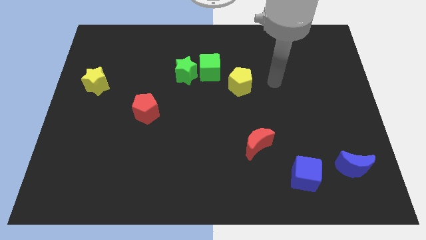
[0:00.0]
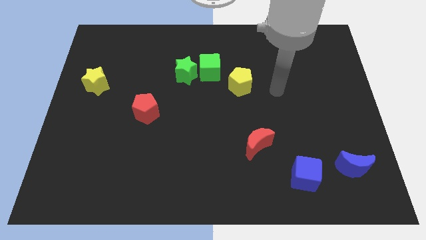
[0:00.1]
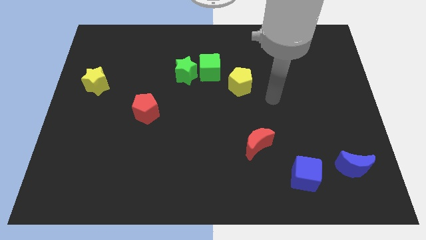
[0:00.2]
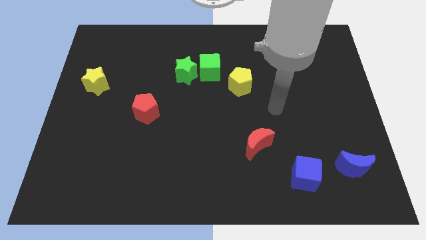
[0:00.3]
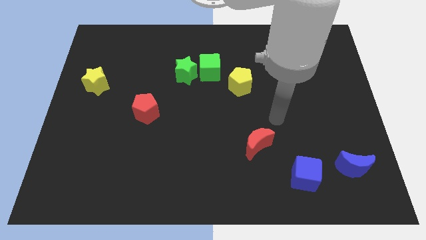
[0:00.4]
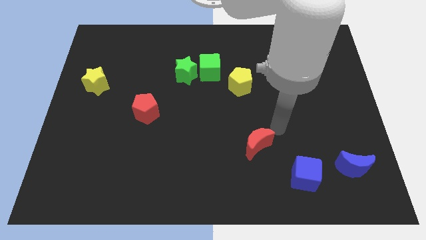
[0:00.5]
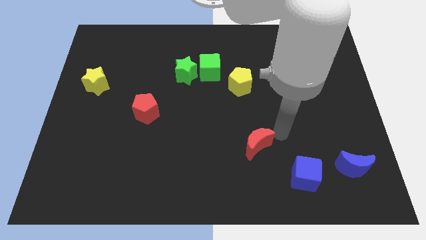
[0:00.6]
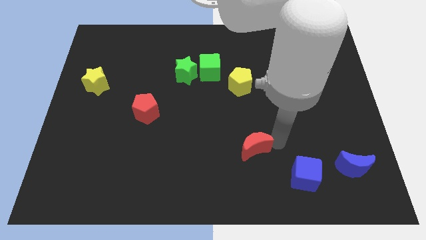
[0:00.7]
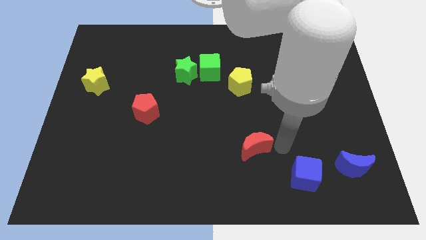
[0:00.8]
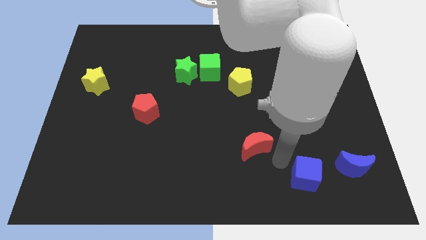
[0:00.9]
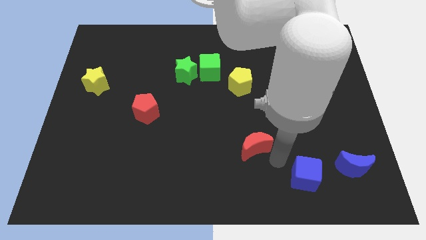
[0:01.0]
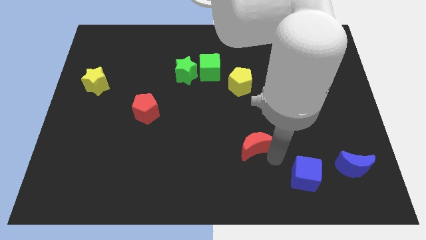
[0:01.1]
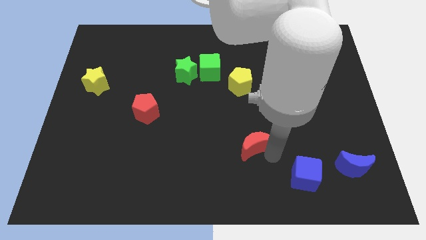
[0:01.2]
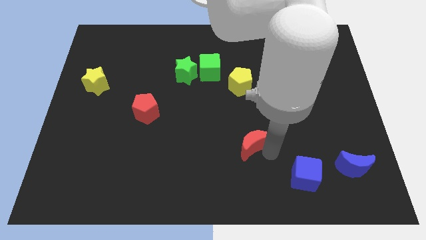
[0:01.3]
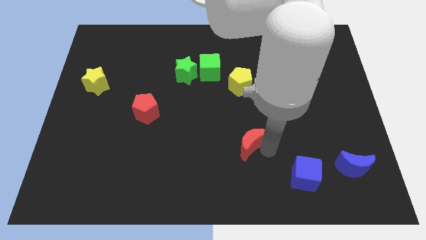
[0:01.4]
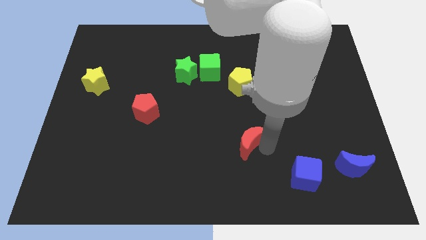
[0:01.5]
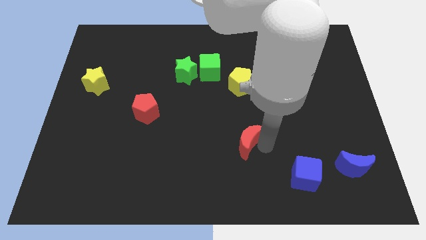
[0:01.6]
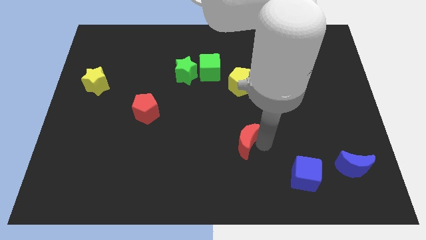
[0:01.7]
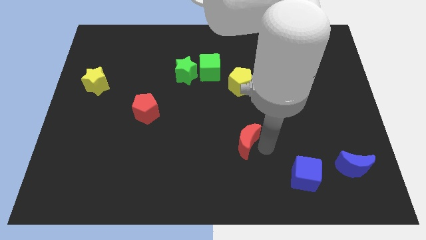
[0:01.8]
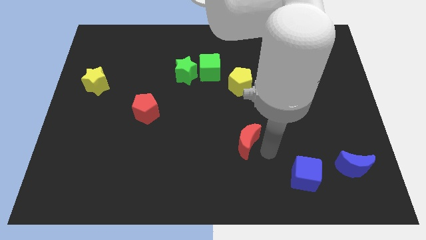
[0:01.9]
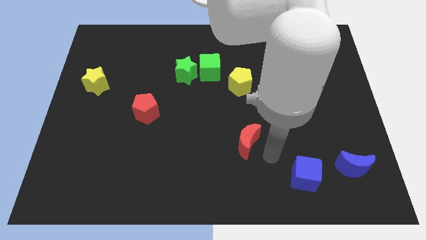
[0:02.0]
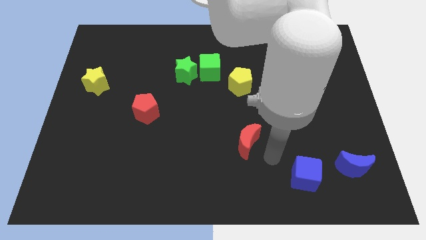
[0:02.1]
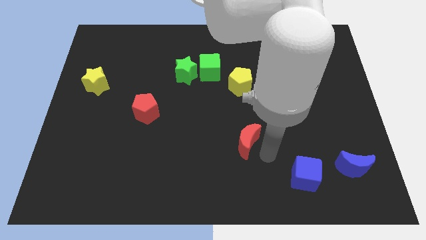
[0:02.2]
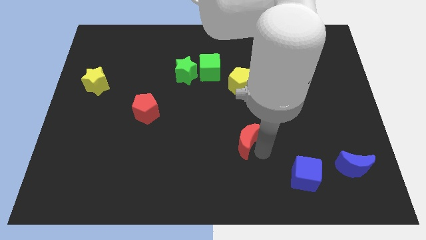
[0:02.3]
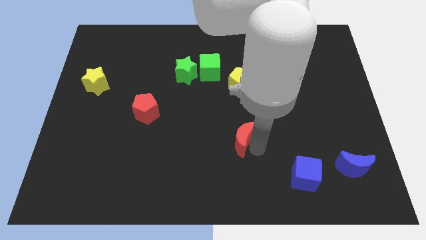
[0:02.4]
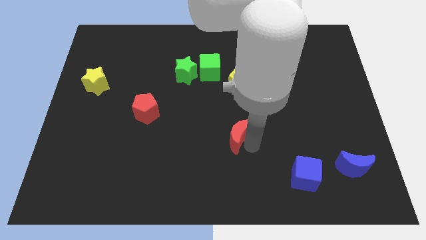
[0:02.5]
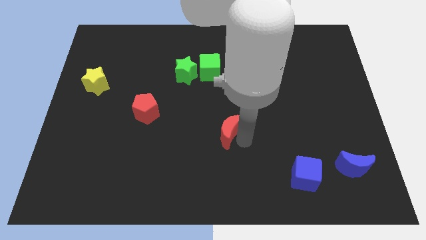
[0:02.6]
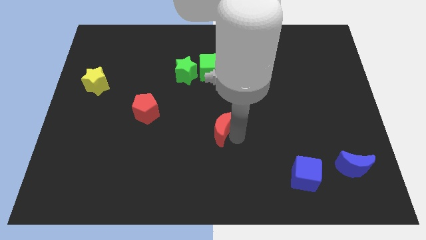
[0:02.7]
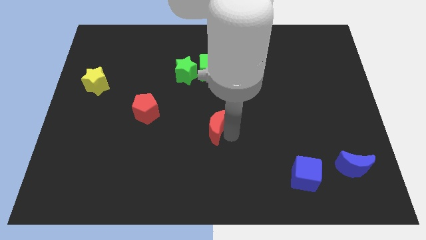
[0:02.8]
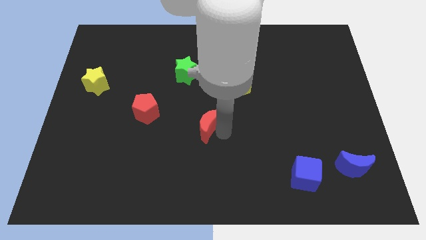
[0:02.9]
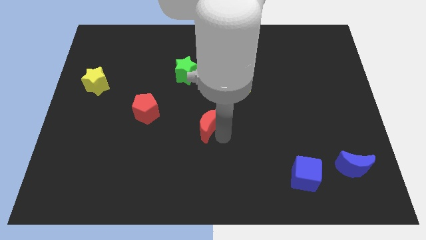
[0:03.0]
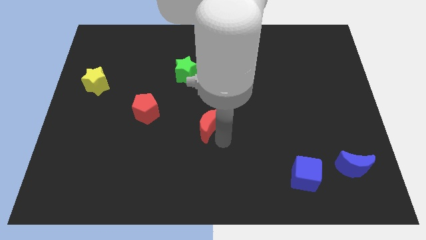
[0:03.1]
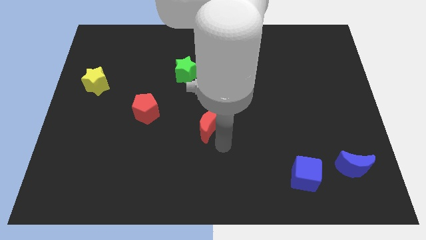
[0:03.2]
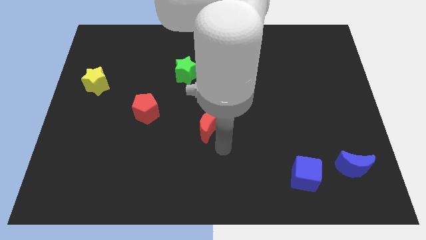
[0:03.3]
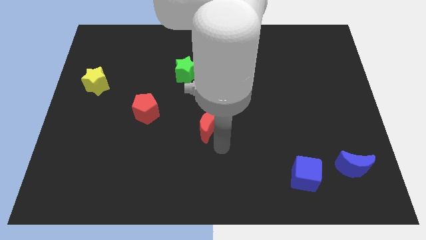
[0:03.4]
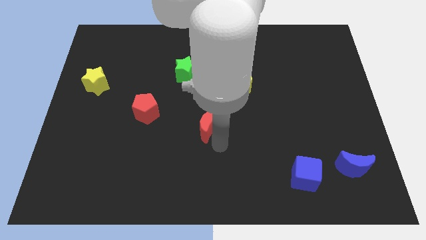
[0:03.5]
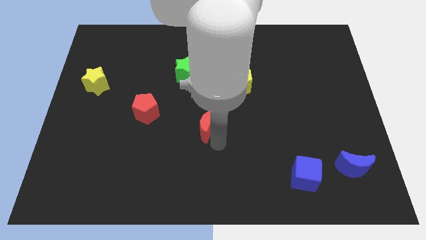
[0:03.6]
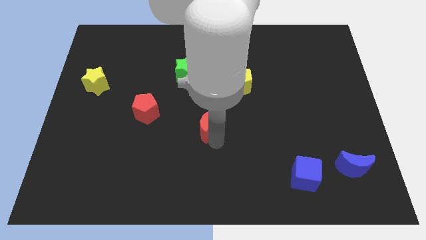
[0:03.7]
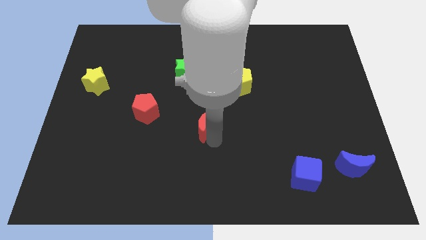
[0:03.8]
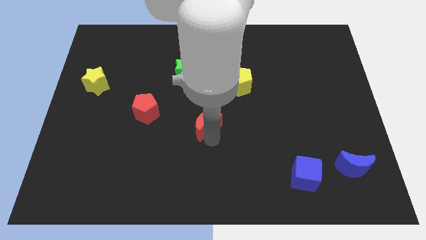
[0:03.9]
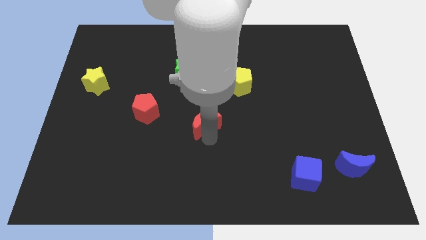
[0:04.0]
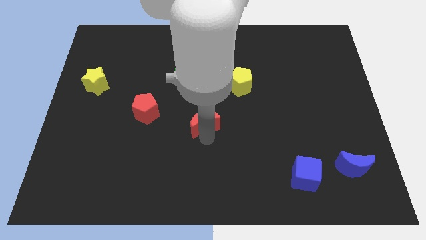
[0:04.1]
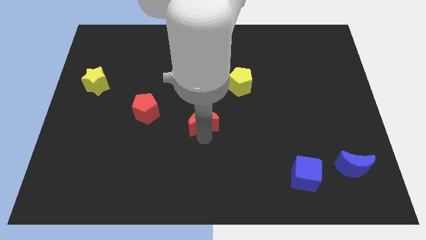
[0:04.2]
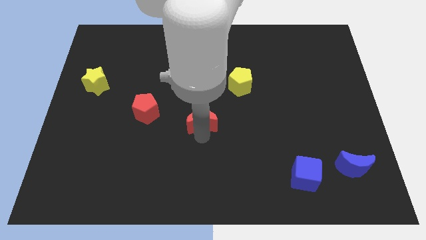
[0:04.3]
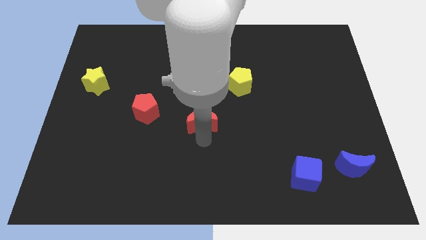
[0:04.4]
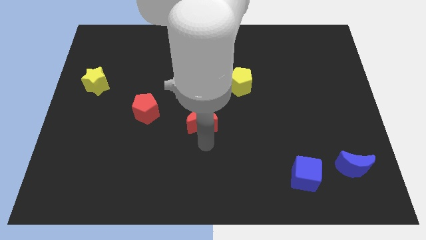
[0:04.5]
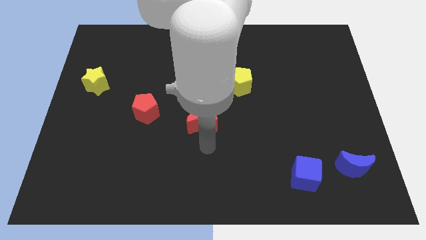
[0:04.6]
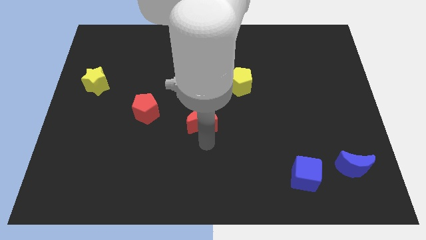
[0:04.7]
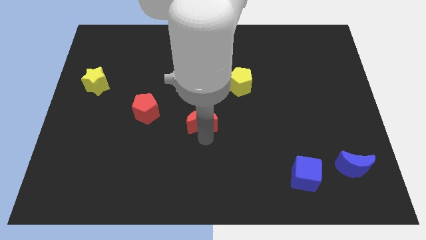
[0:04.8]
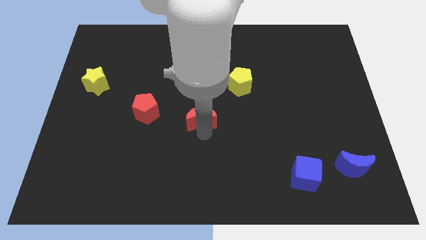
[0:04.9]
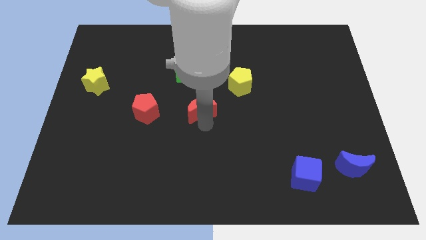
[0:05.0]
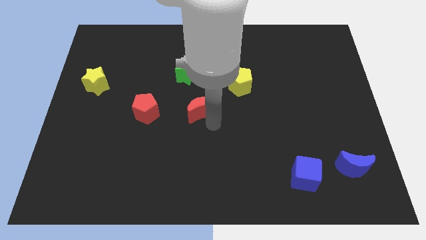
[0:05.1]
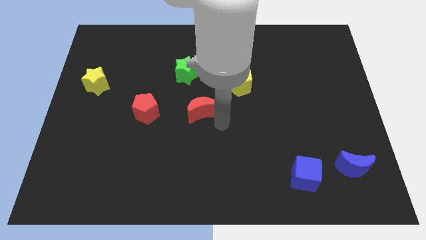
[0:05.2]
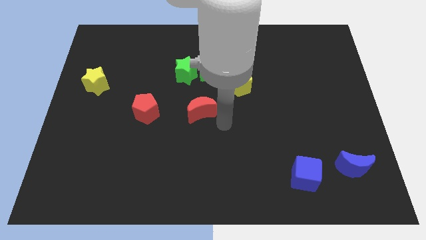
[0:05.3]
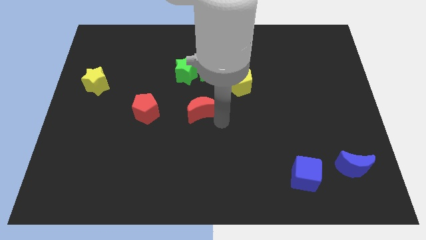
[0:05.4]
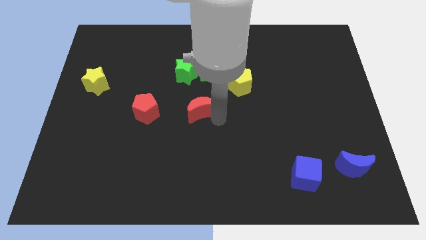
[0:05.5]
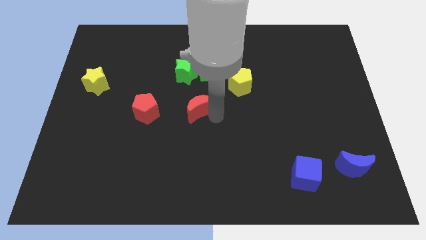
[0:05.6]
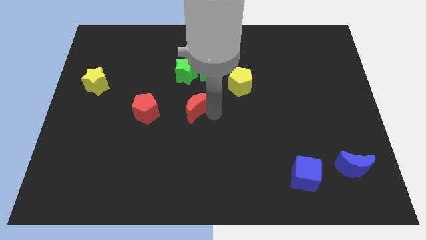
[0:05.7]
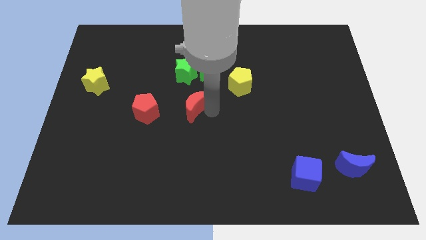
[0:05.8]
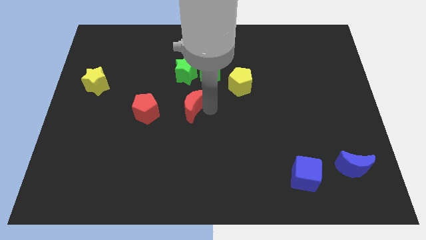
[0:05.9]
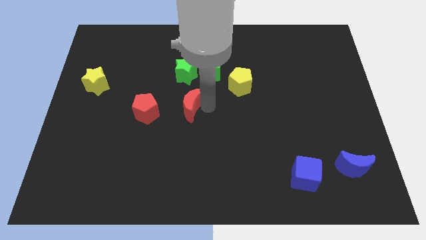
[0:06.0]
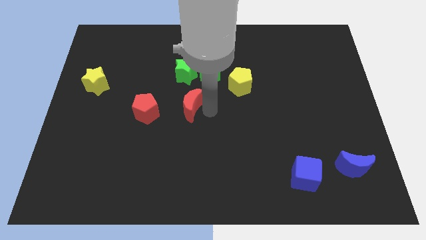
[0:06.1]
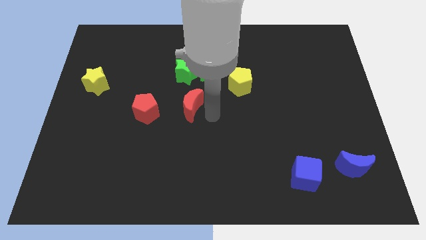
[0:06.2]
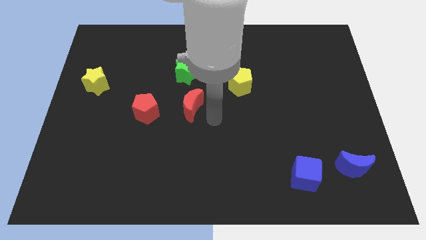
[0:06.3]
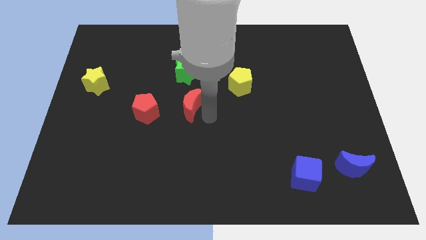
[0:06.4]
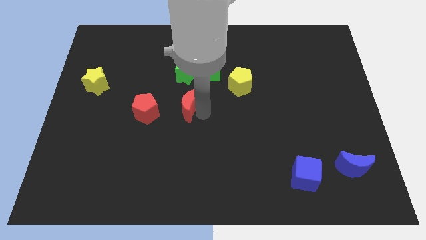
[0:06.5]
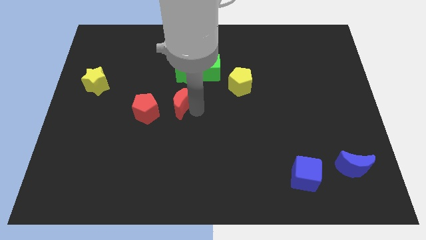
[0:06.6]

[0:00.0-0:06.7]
move the red moon diagonally up and to the right of the red pentagon

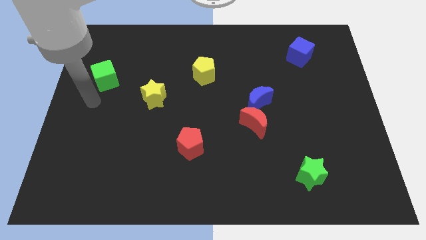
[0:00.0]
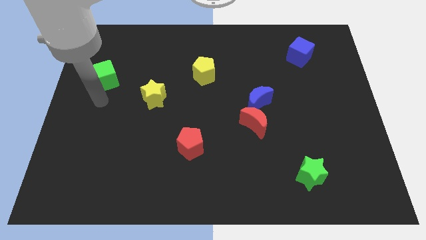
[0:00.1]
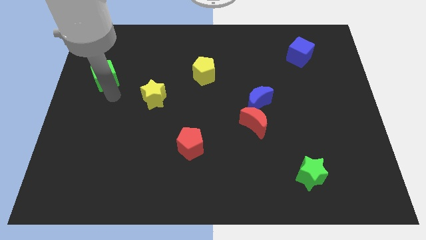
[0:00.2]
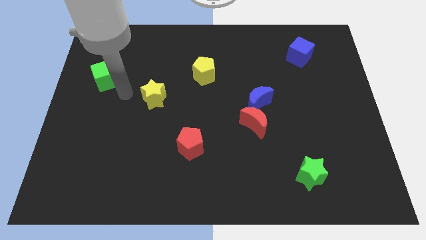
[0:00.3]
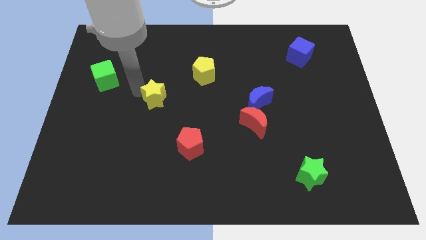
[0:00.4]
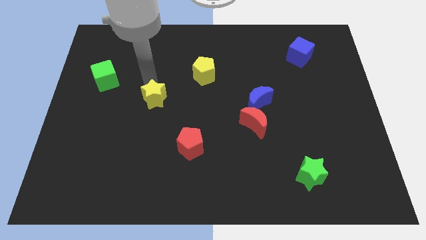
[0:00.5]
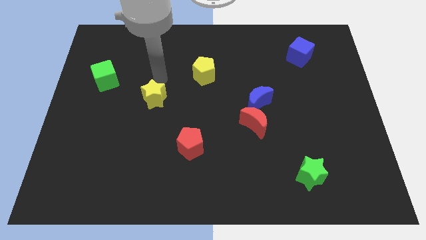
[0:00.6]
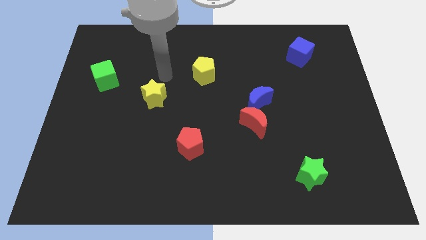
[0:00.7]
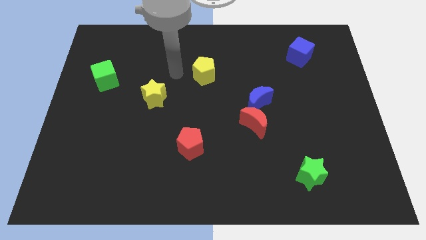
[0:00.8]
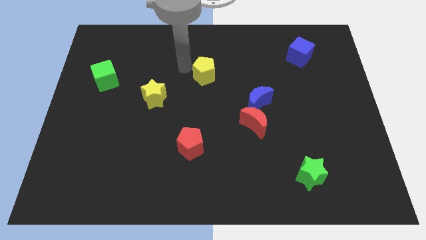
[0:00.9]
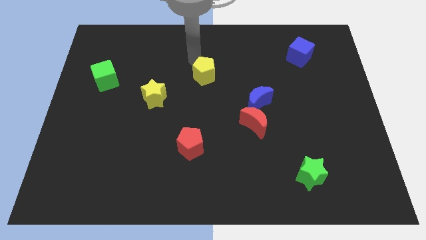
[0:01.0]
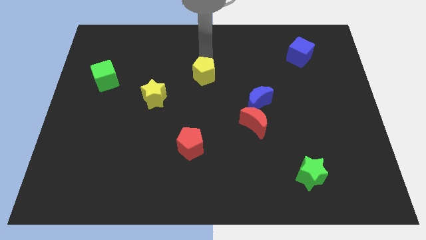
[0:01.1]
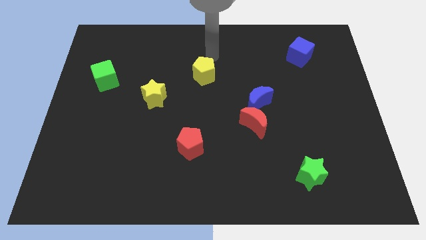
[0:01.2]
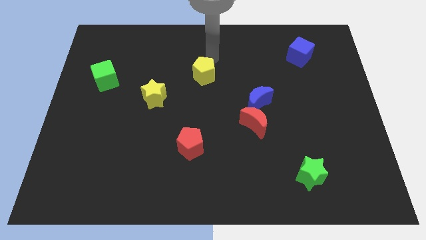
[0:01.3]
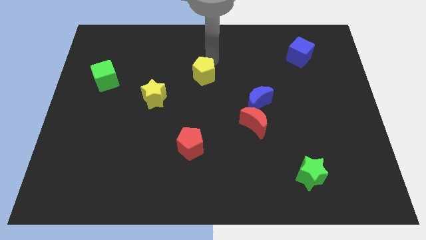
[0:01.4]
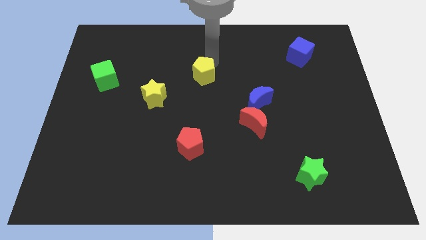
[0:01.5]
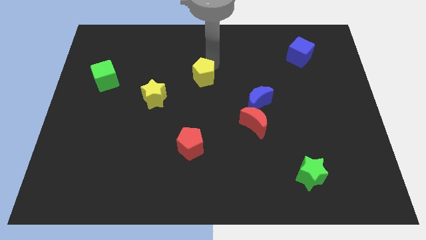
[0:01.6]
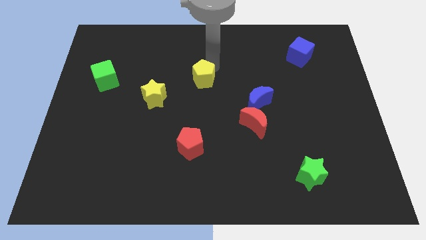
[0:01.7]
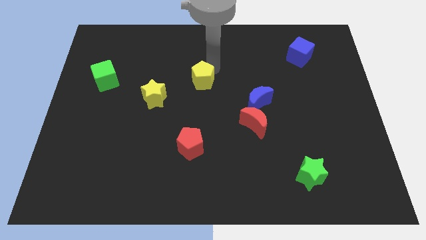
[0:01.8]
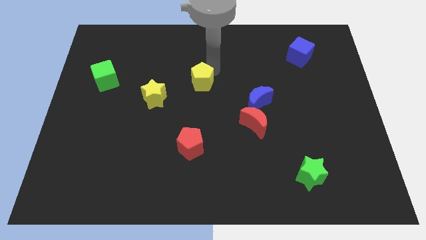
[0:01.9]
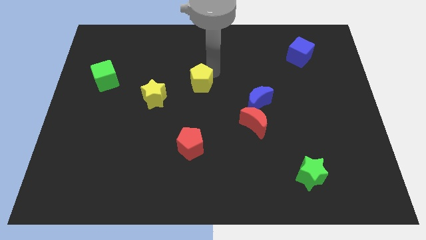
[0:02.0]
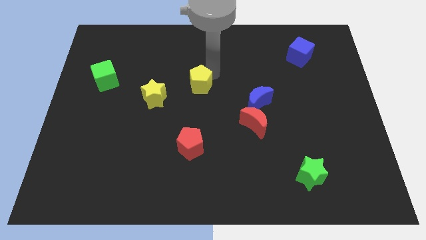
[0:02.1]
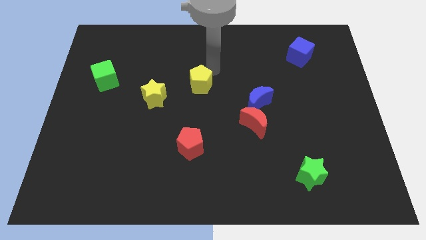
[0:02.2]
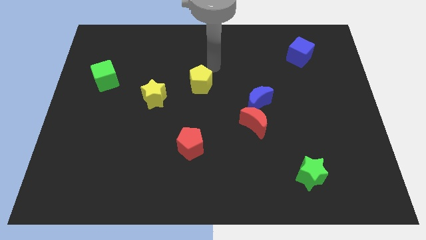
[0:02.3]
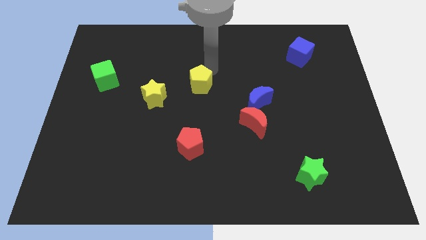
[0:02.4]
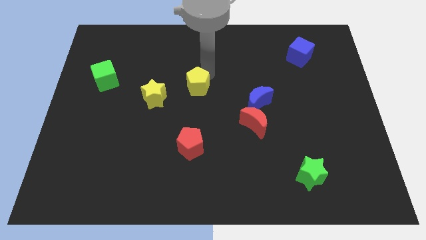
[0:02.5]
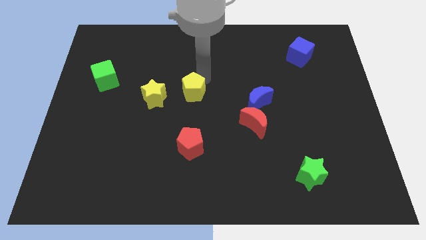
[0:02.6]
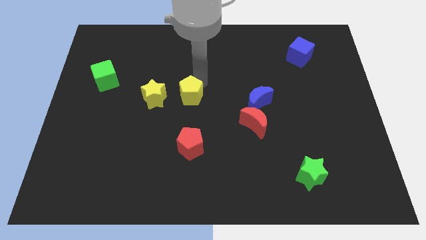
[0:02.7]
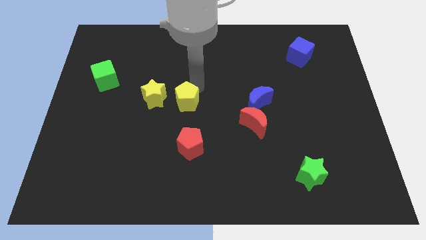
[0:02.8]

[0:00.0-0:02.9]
move the yellow pentagon to the bottom right side of the yellow star
